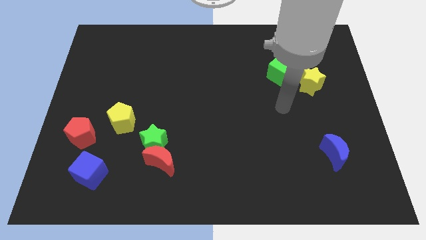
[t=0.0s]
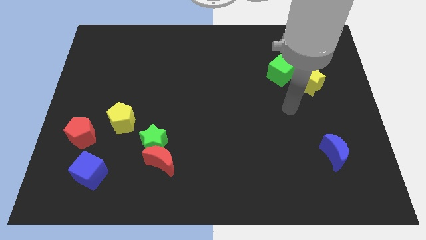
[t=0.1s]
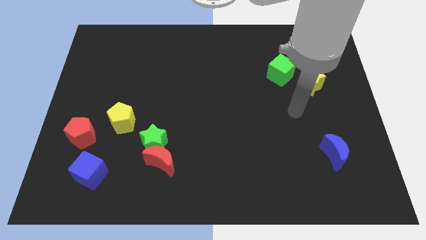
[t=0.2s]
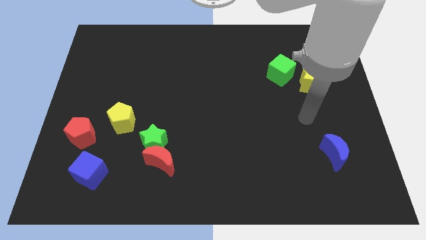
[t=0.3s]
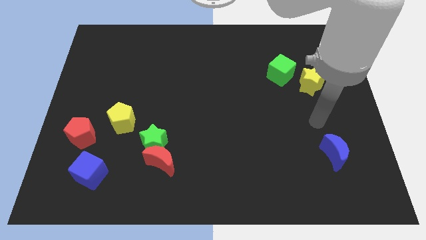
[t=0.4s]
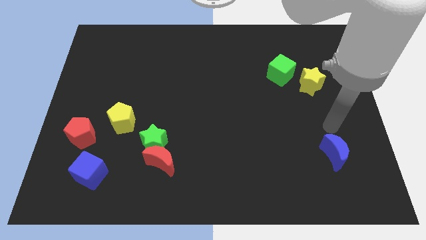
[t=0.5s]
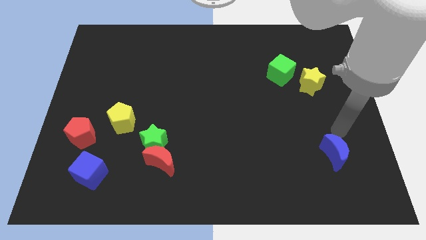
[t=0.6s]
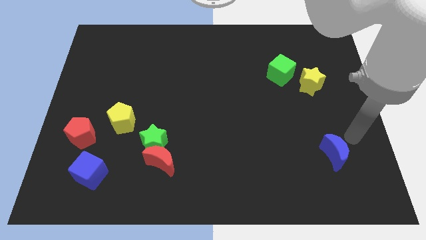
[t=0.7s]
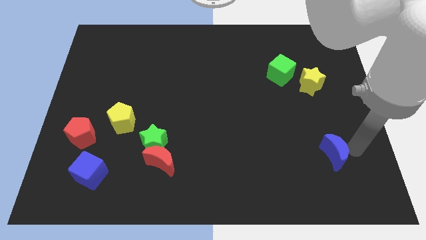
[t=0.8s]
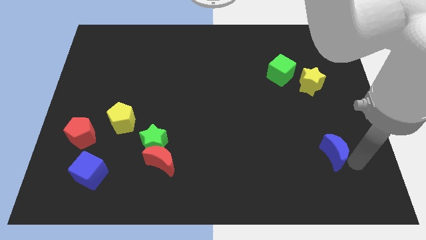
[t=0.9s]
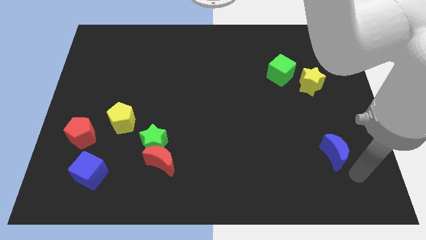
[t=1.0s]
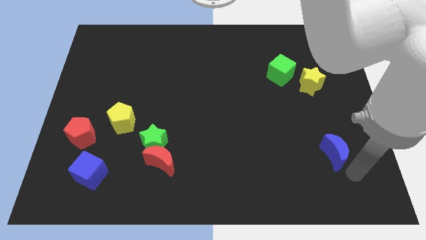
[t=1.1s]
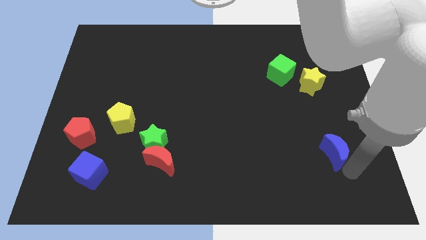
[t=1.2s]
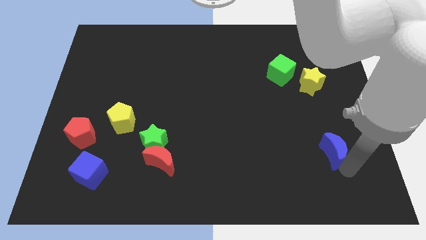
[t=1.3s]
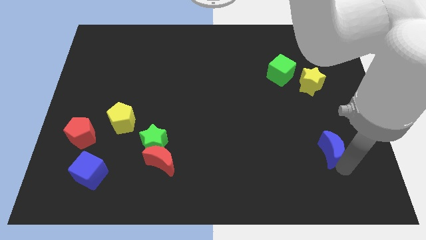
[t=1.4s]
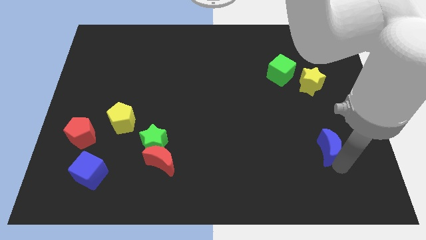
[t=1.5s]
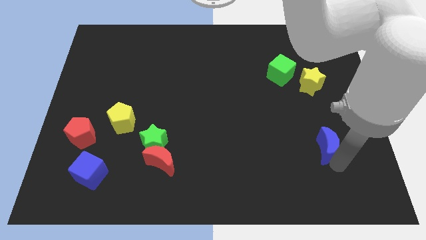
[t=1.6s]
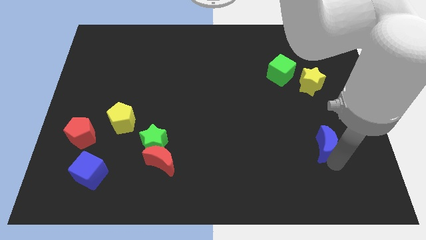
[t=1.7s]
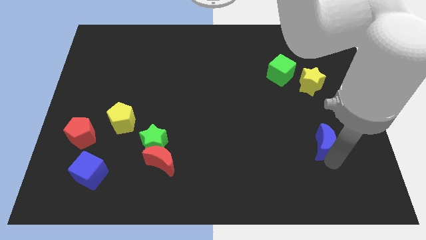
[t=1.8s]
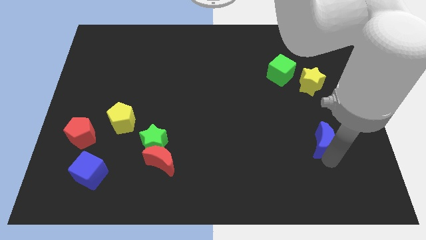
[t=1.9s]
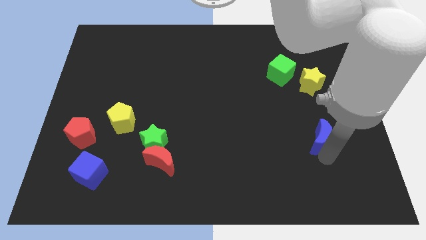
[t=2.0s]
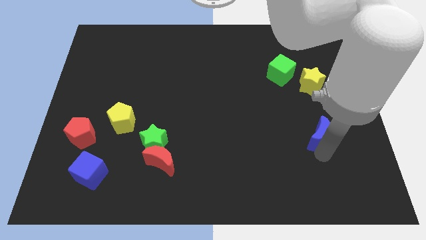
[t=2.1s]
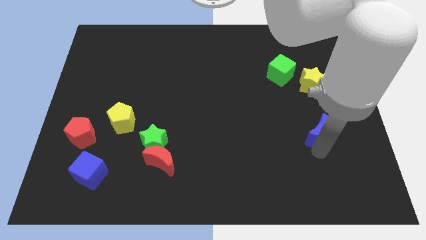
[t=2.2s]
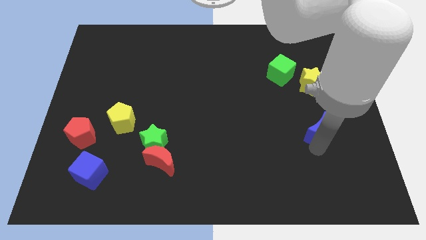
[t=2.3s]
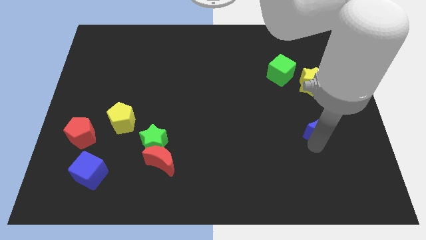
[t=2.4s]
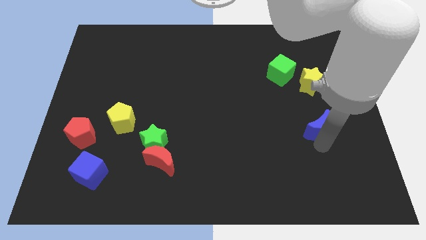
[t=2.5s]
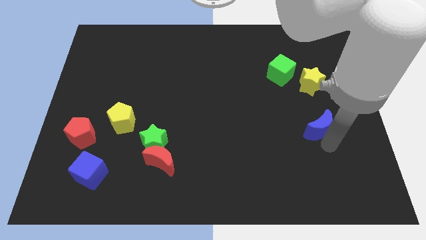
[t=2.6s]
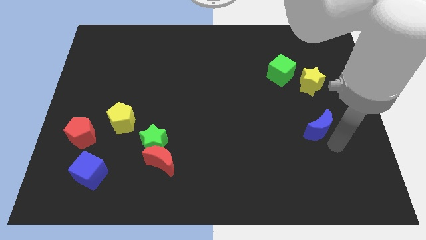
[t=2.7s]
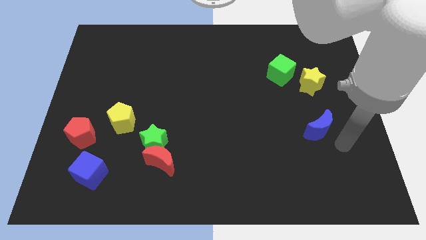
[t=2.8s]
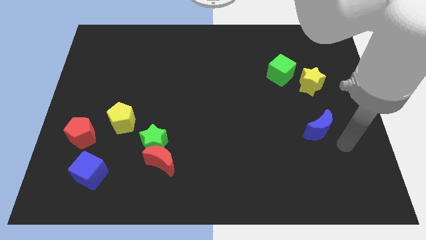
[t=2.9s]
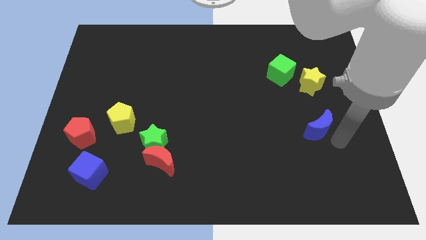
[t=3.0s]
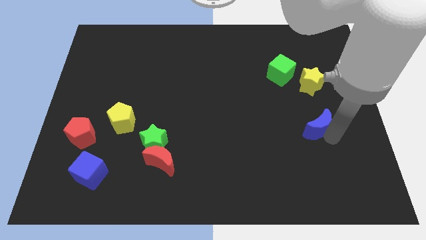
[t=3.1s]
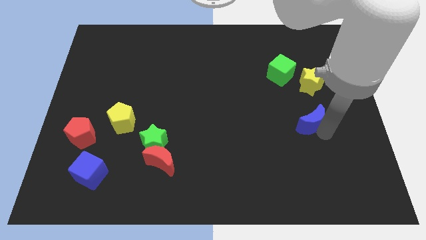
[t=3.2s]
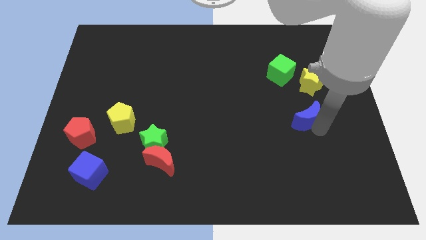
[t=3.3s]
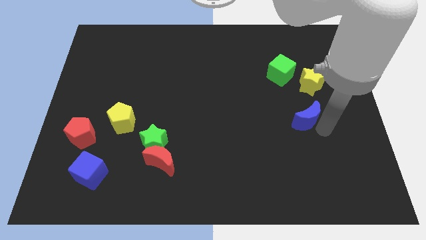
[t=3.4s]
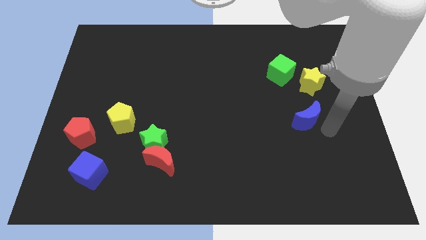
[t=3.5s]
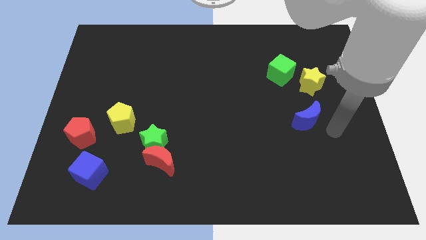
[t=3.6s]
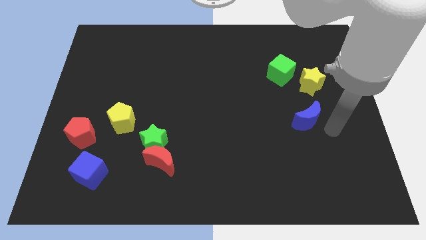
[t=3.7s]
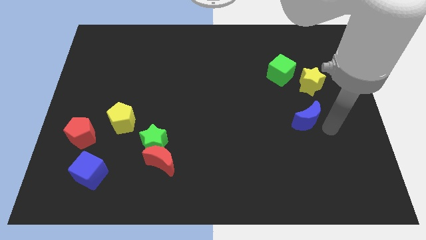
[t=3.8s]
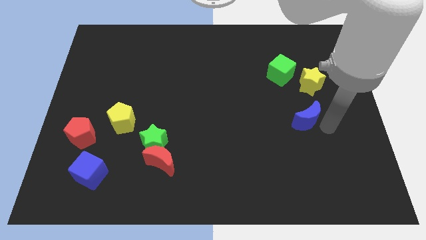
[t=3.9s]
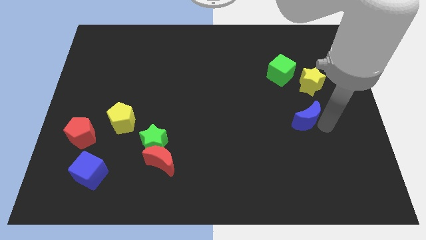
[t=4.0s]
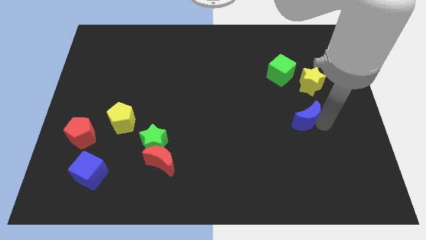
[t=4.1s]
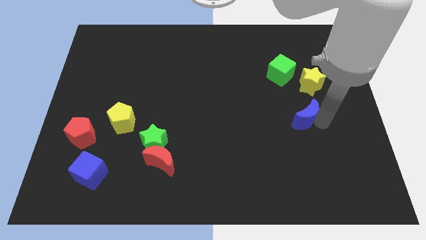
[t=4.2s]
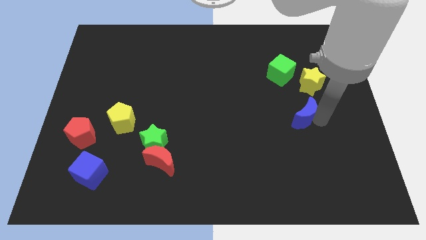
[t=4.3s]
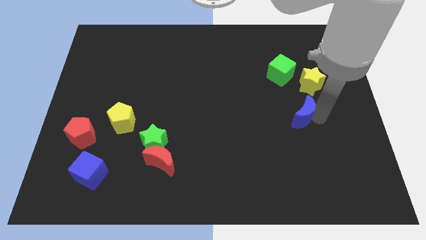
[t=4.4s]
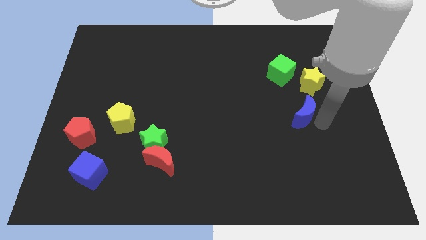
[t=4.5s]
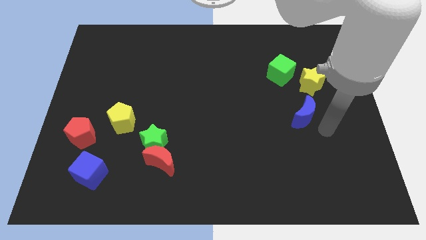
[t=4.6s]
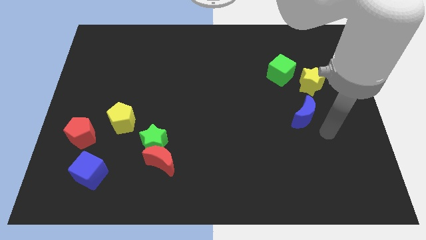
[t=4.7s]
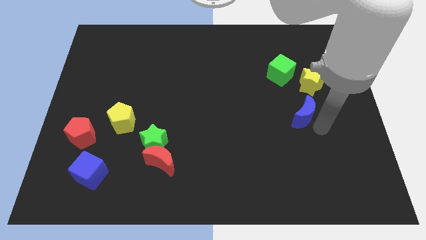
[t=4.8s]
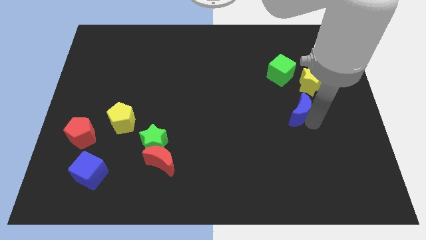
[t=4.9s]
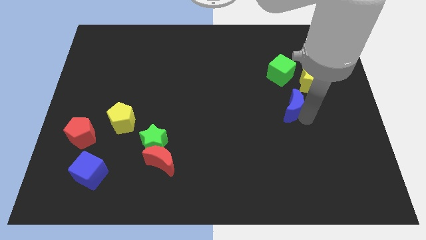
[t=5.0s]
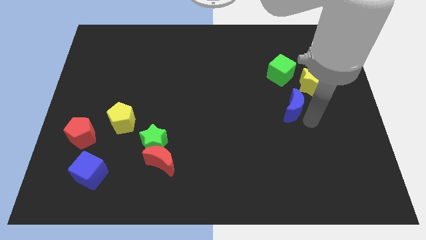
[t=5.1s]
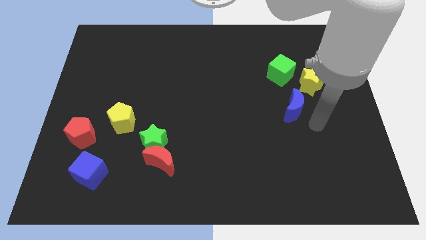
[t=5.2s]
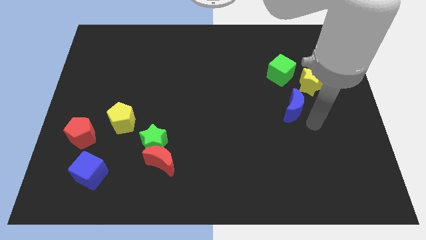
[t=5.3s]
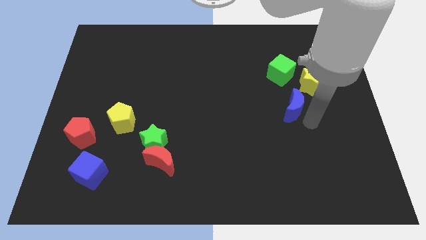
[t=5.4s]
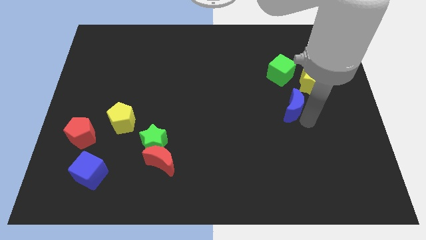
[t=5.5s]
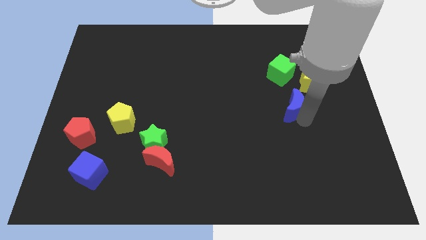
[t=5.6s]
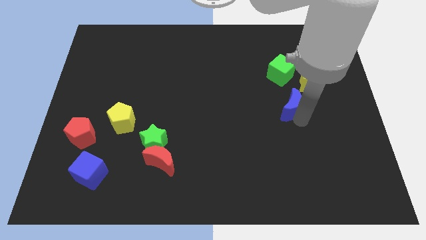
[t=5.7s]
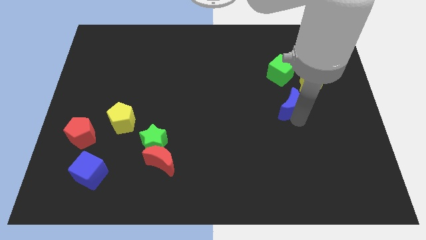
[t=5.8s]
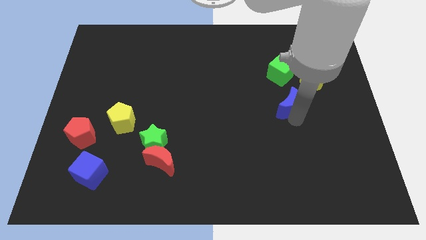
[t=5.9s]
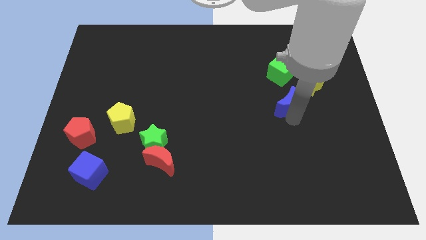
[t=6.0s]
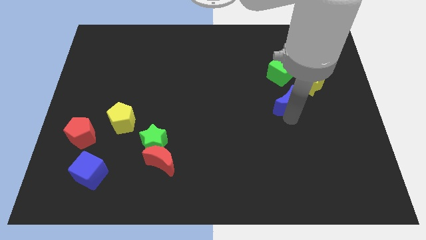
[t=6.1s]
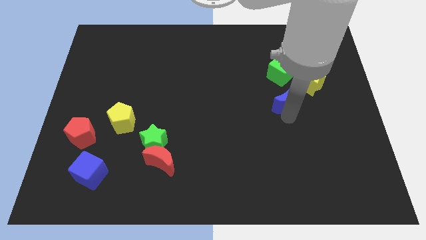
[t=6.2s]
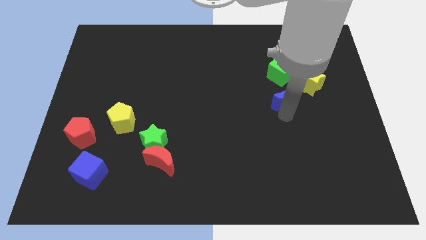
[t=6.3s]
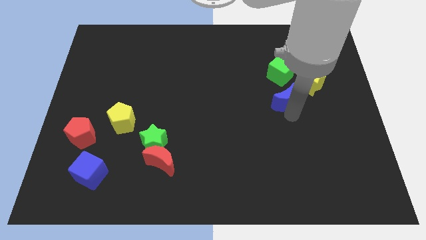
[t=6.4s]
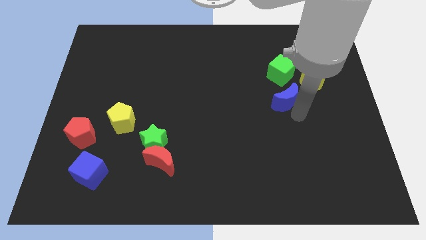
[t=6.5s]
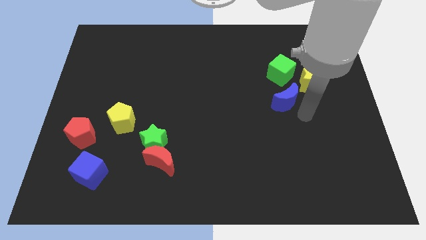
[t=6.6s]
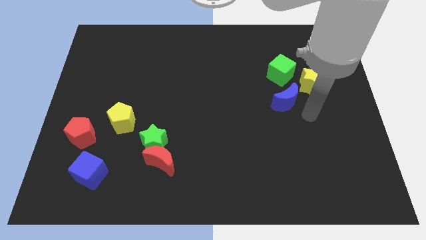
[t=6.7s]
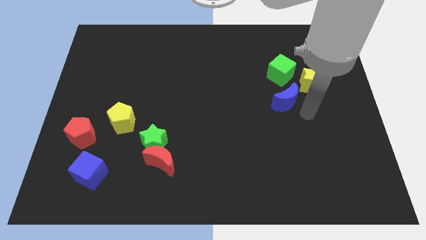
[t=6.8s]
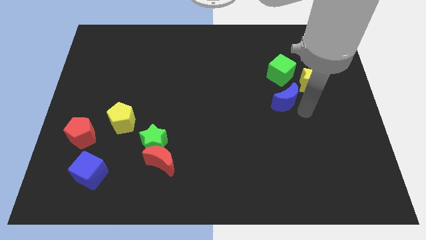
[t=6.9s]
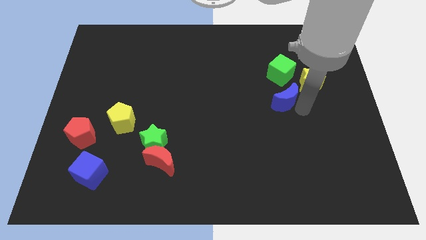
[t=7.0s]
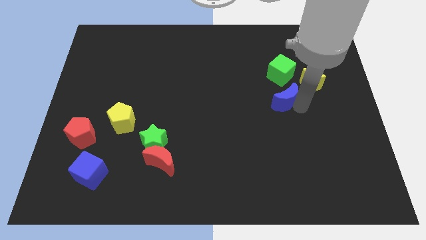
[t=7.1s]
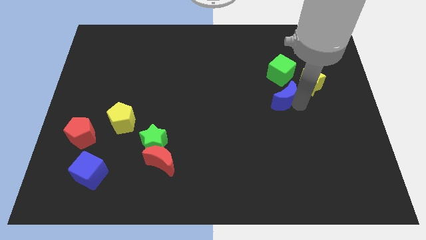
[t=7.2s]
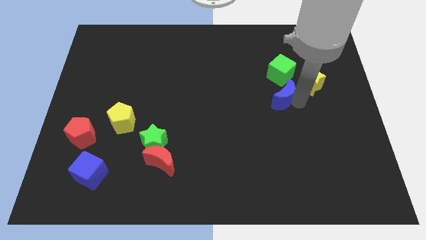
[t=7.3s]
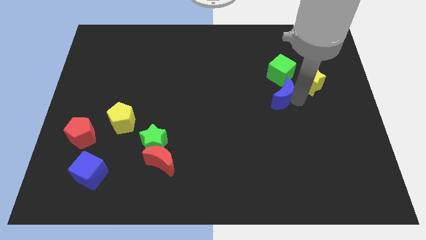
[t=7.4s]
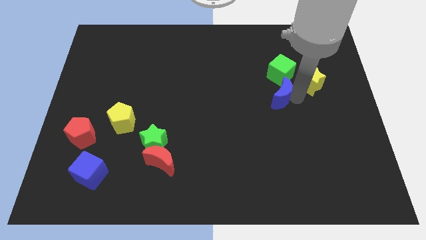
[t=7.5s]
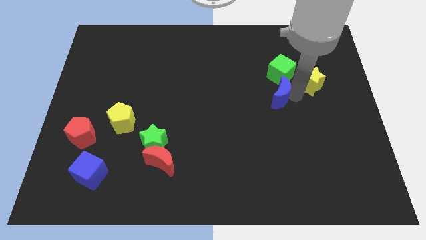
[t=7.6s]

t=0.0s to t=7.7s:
slide the blue moon diagonally down and to the left of the green cube
